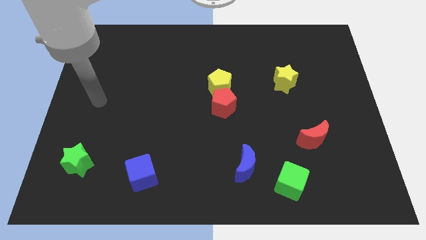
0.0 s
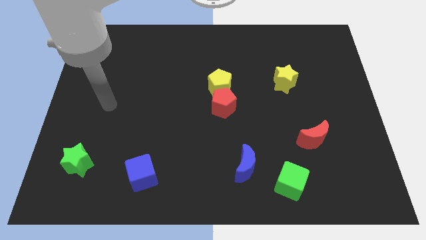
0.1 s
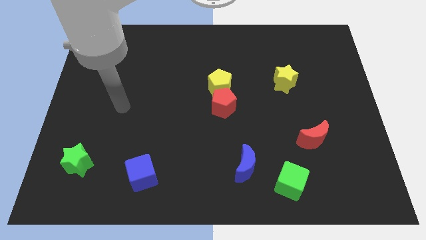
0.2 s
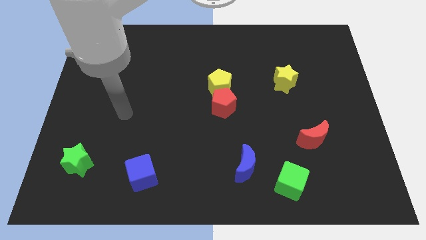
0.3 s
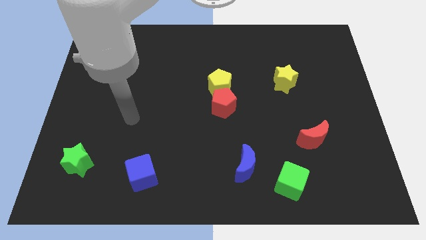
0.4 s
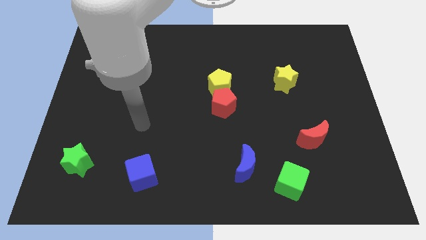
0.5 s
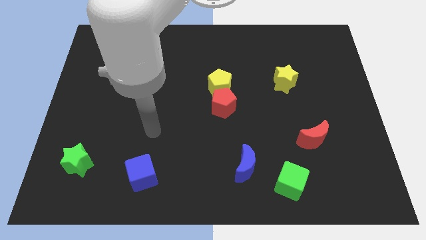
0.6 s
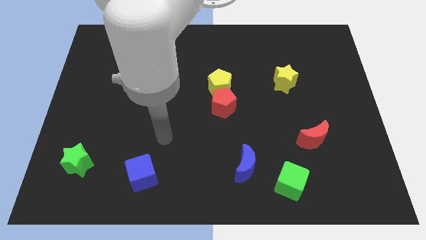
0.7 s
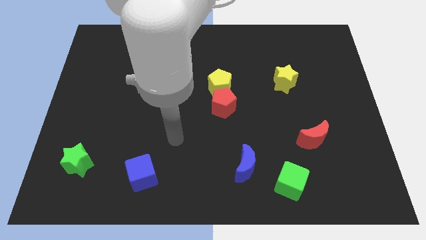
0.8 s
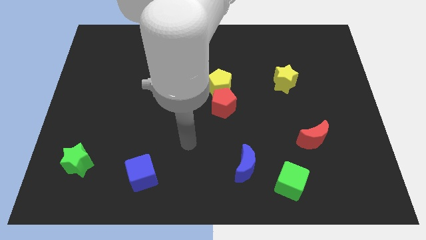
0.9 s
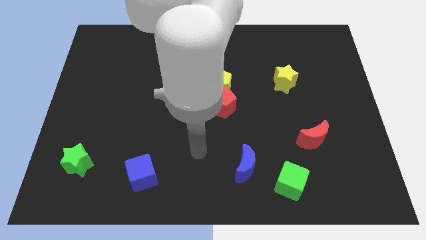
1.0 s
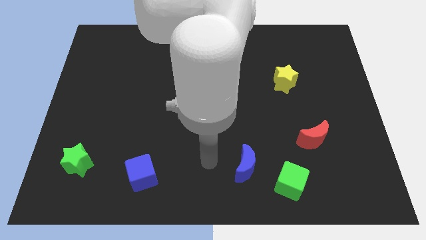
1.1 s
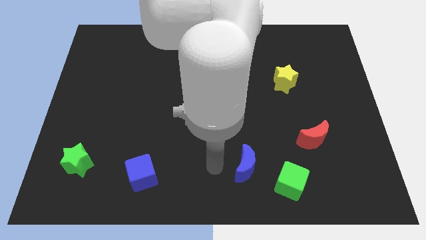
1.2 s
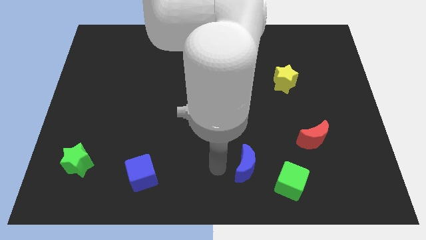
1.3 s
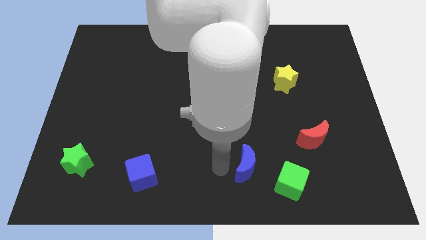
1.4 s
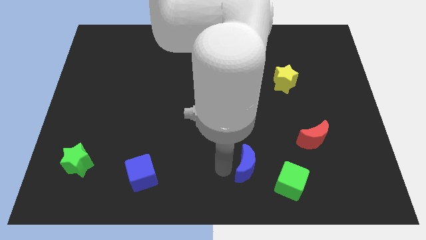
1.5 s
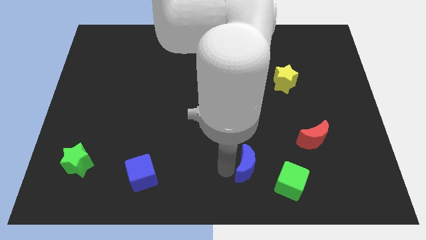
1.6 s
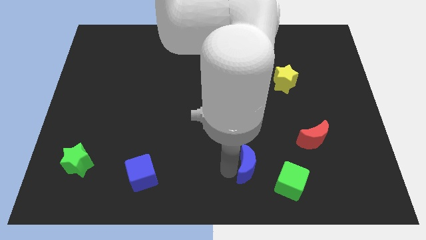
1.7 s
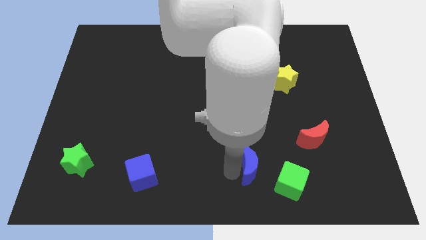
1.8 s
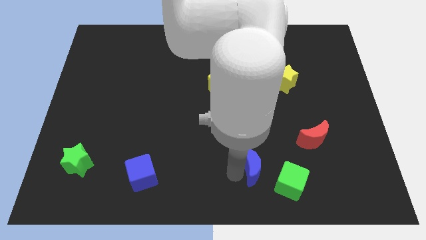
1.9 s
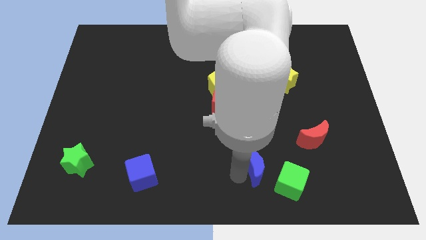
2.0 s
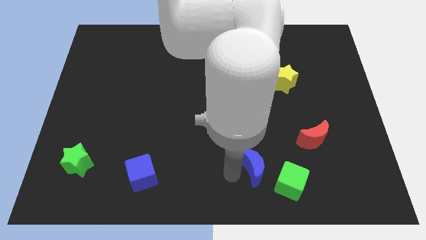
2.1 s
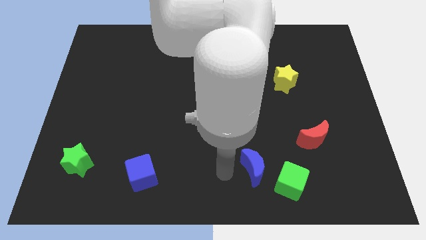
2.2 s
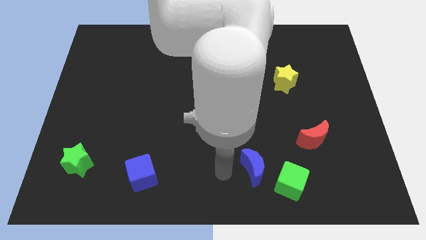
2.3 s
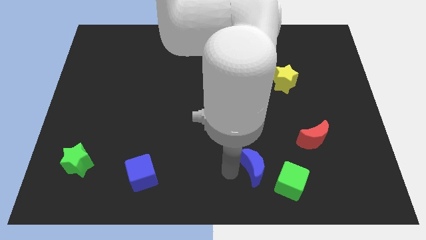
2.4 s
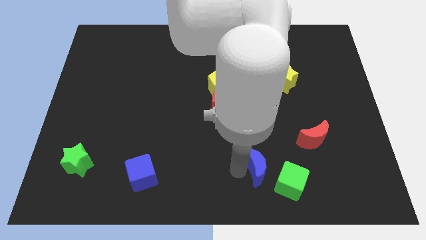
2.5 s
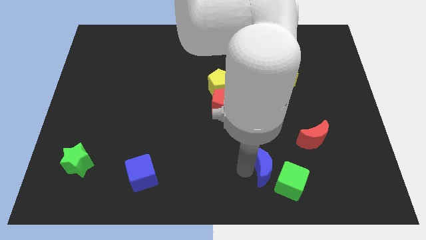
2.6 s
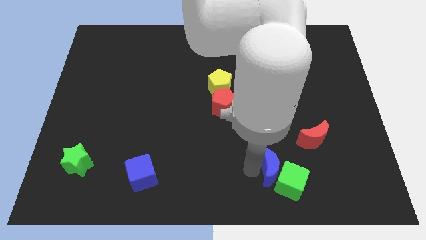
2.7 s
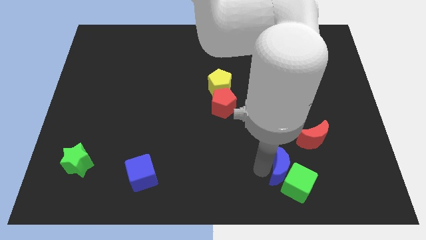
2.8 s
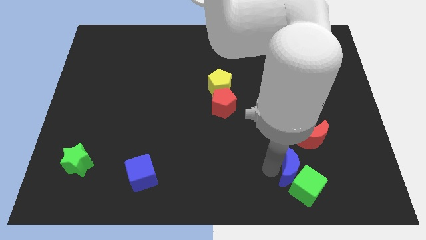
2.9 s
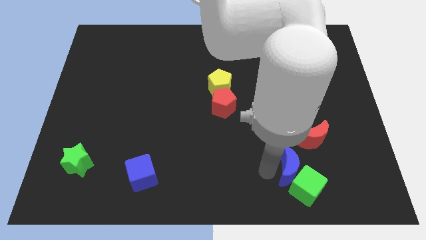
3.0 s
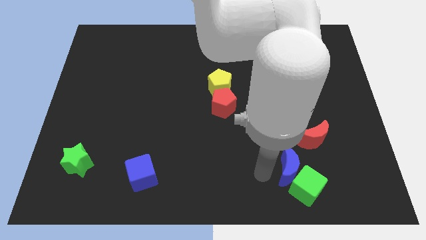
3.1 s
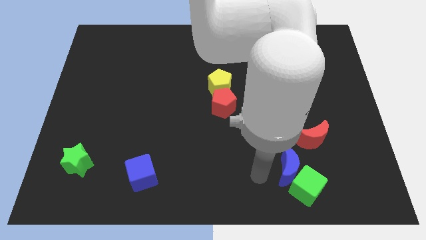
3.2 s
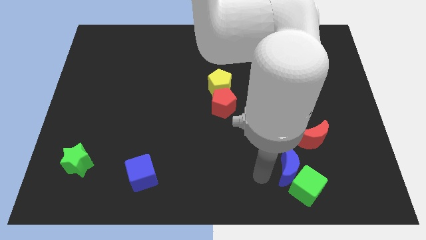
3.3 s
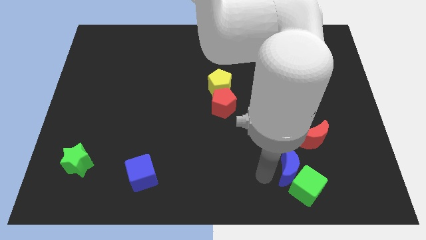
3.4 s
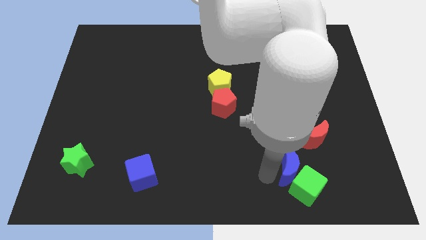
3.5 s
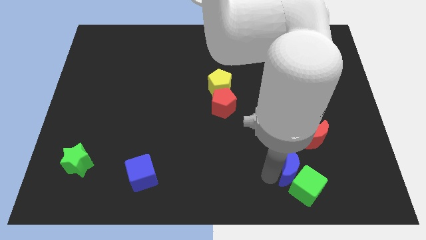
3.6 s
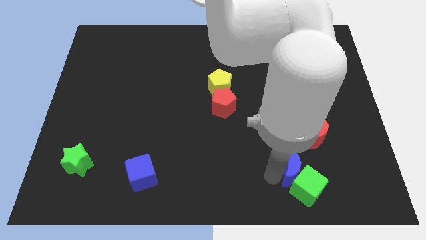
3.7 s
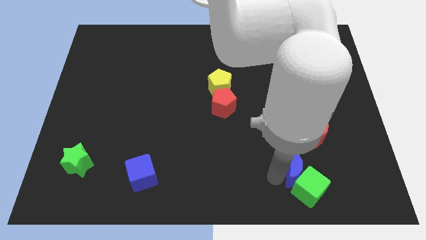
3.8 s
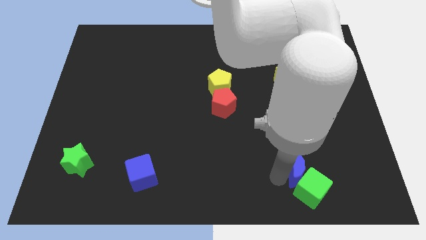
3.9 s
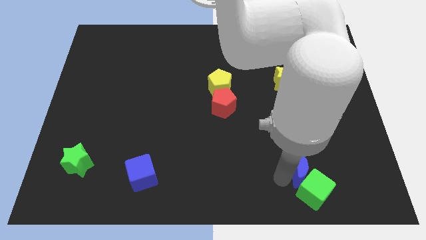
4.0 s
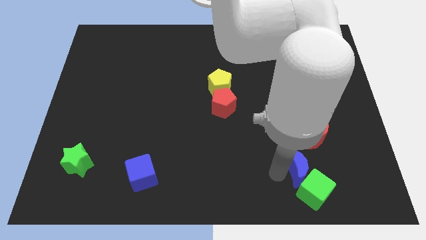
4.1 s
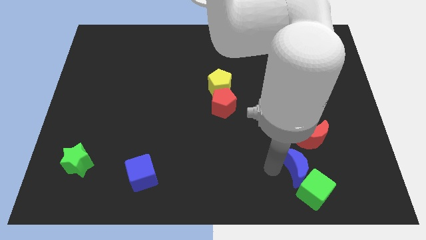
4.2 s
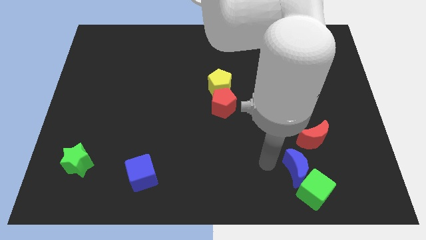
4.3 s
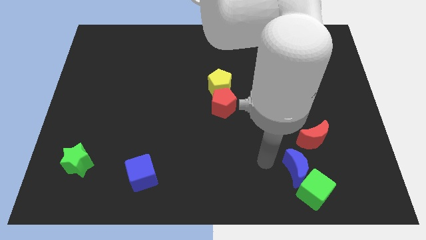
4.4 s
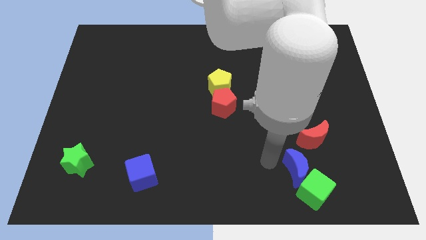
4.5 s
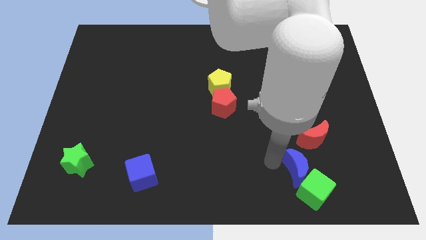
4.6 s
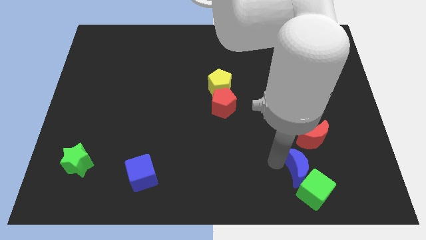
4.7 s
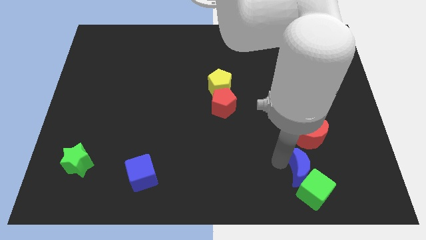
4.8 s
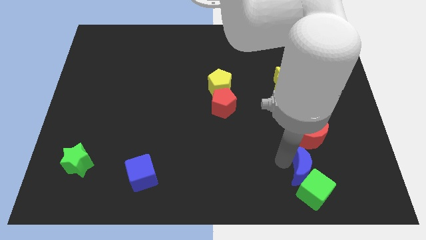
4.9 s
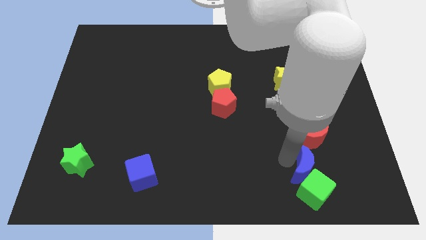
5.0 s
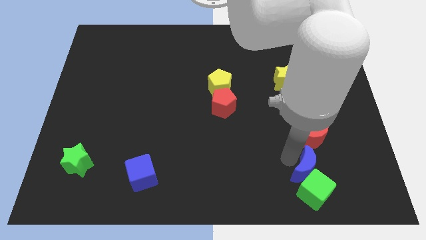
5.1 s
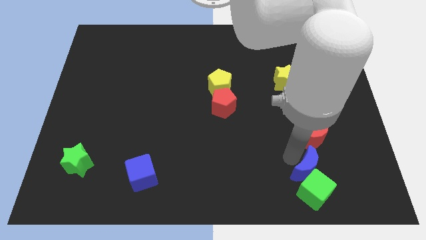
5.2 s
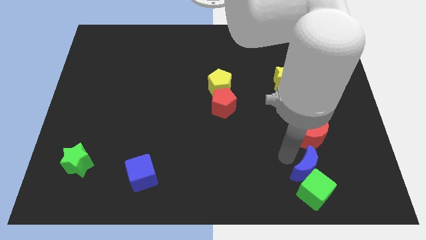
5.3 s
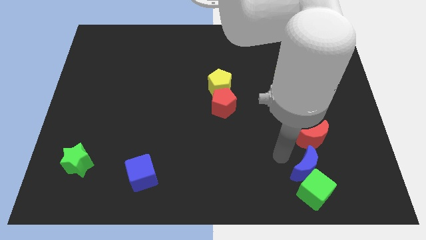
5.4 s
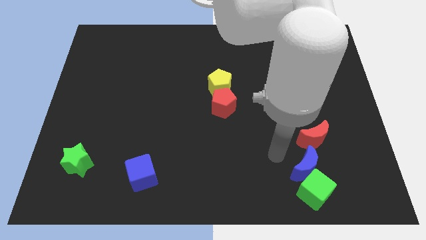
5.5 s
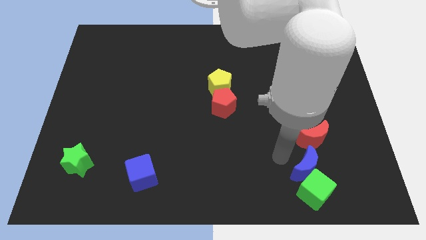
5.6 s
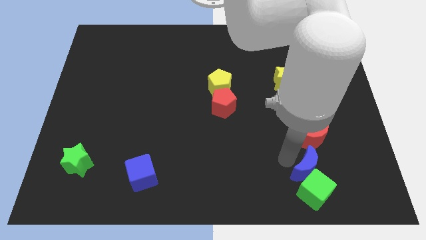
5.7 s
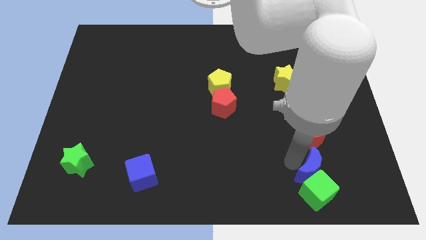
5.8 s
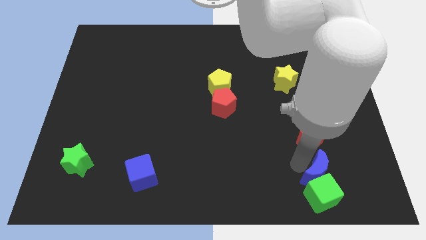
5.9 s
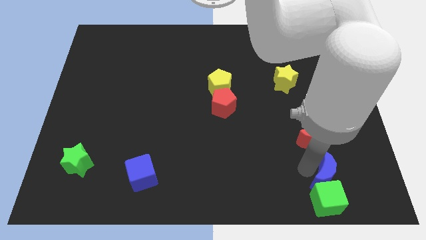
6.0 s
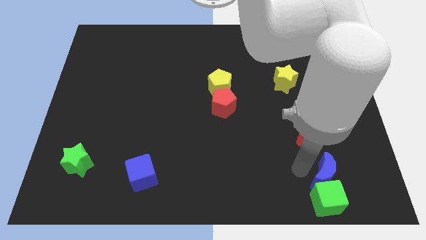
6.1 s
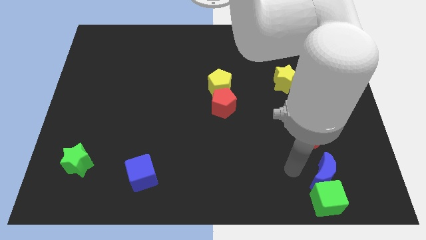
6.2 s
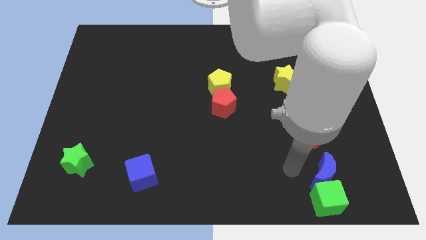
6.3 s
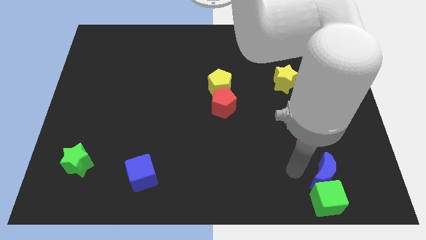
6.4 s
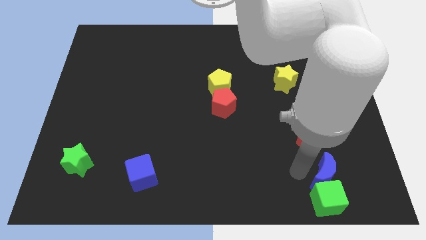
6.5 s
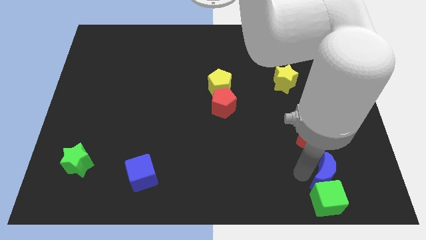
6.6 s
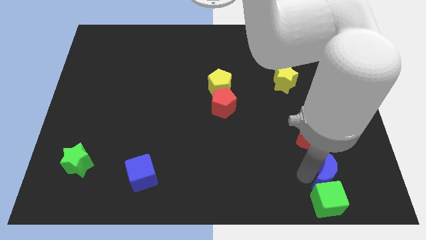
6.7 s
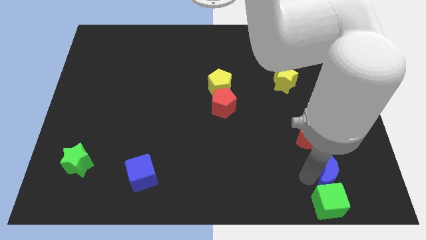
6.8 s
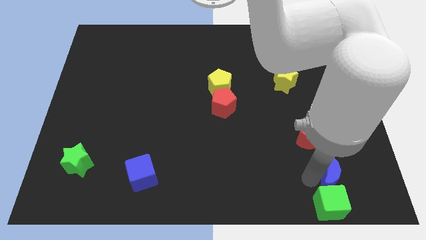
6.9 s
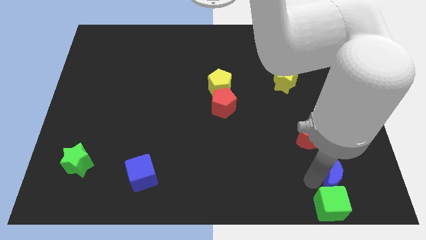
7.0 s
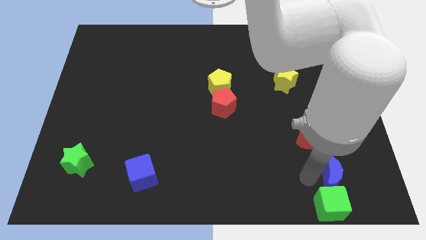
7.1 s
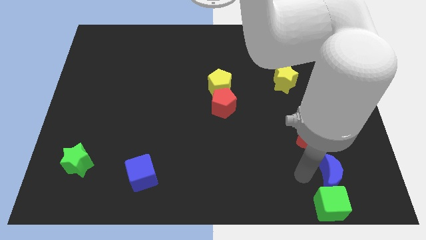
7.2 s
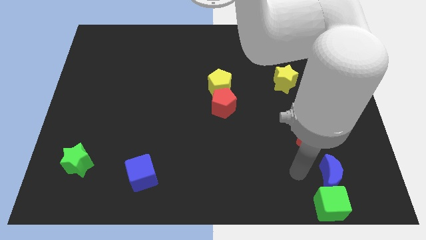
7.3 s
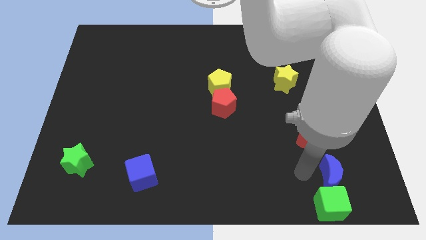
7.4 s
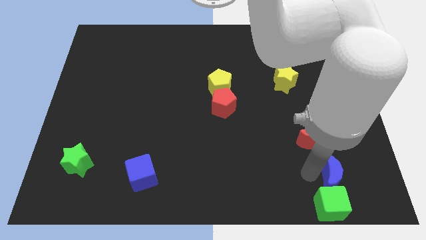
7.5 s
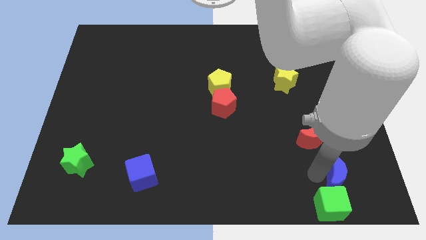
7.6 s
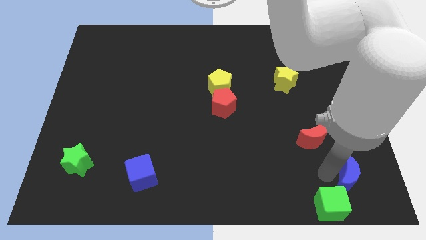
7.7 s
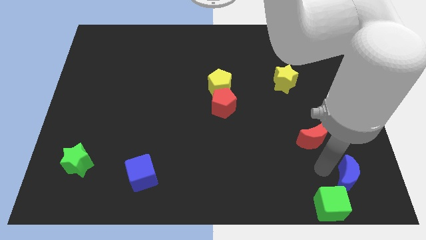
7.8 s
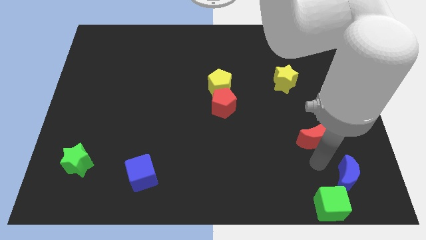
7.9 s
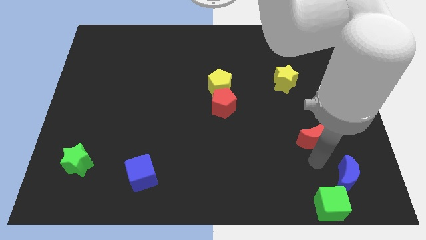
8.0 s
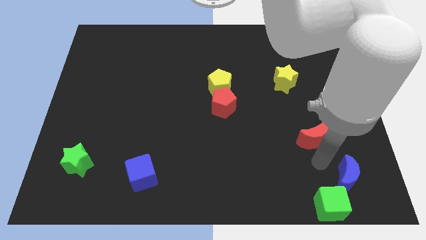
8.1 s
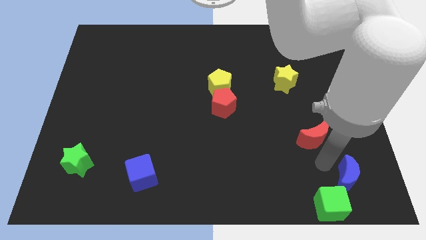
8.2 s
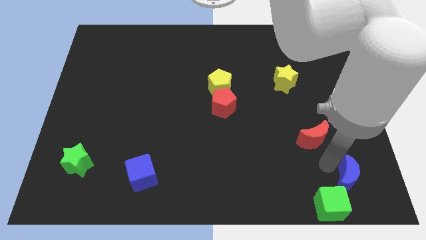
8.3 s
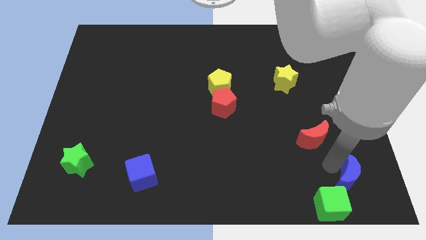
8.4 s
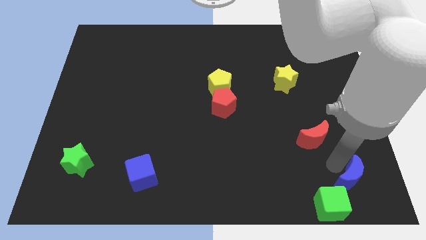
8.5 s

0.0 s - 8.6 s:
slide the blue moon to the bottom right corner
